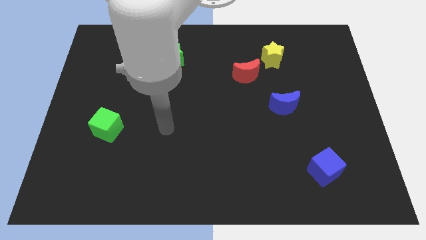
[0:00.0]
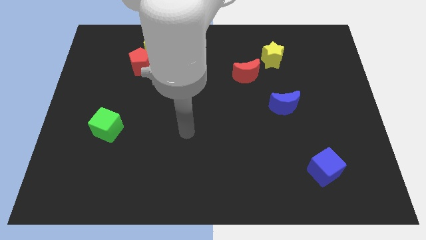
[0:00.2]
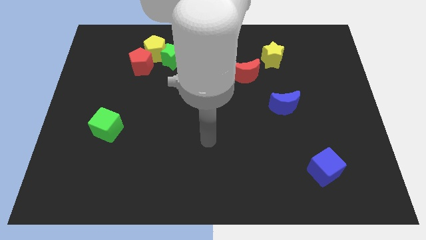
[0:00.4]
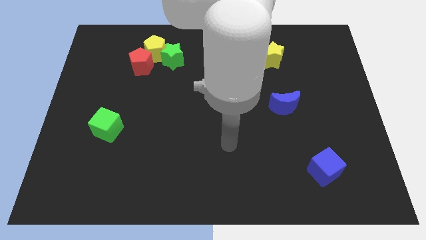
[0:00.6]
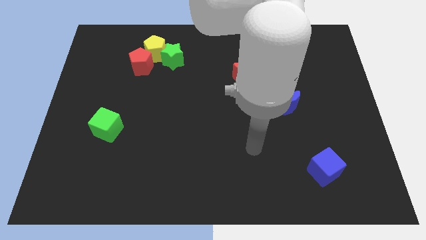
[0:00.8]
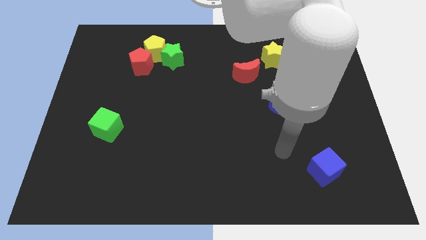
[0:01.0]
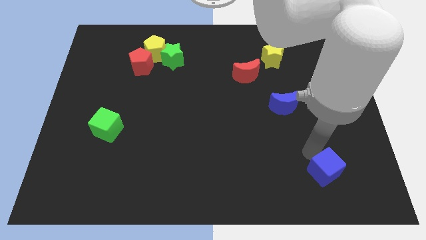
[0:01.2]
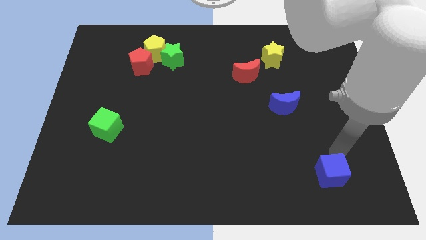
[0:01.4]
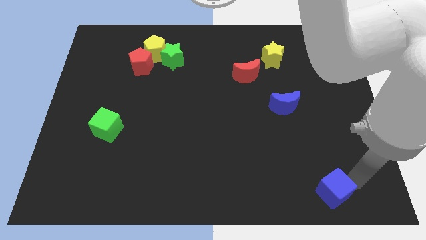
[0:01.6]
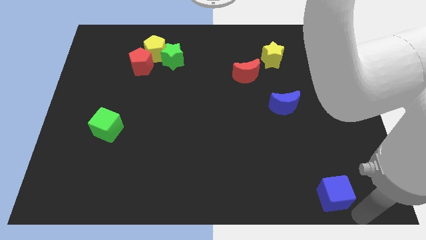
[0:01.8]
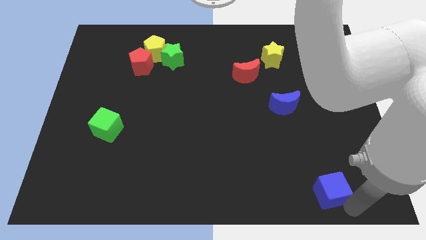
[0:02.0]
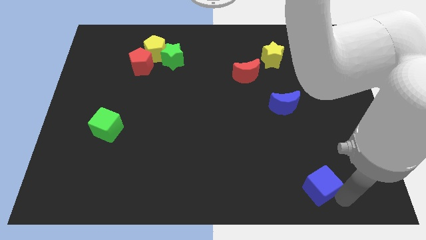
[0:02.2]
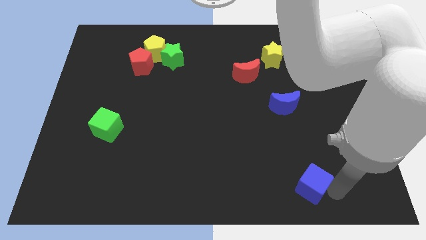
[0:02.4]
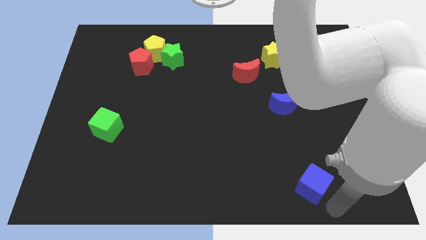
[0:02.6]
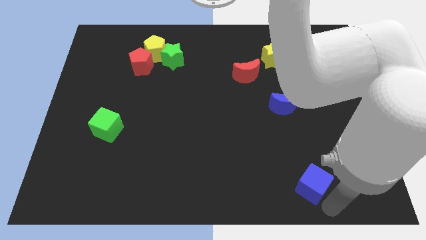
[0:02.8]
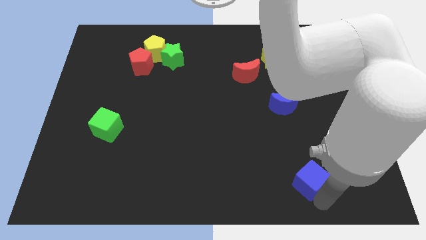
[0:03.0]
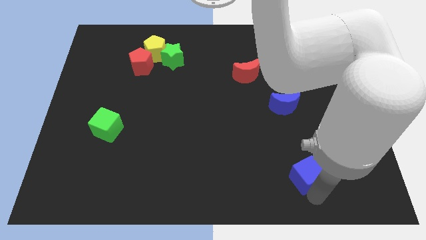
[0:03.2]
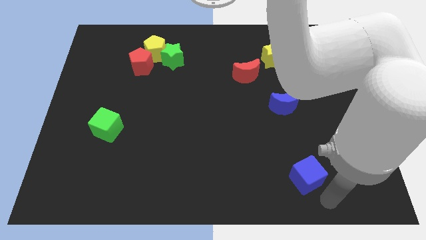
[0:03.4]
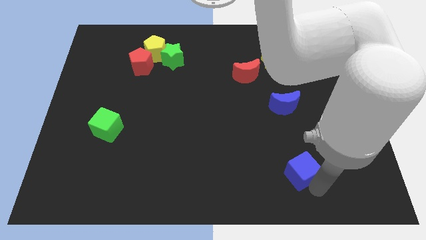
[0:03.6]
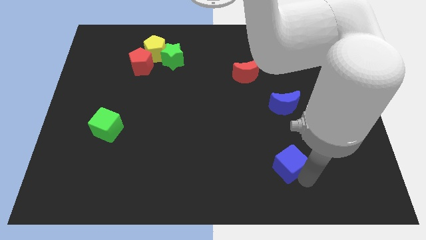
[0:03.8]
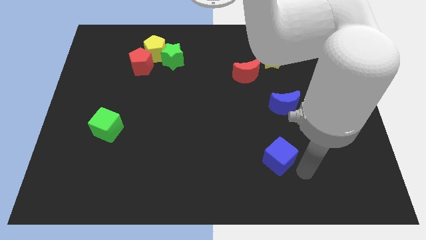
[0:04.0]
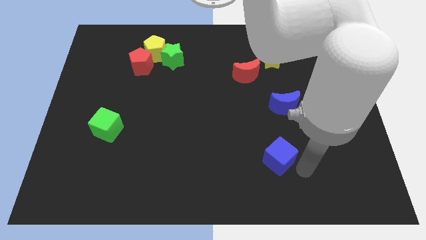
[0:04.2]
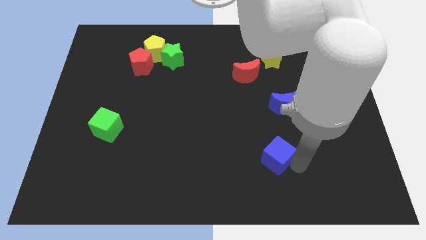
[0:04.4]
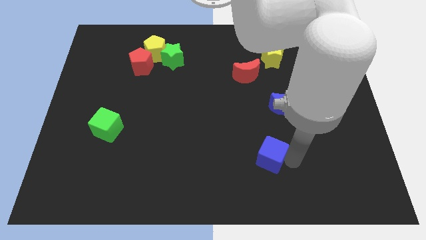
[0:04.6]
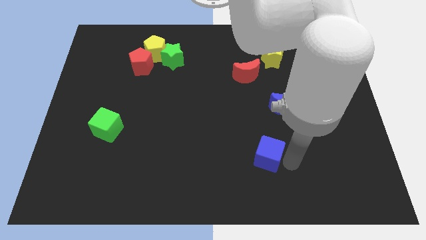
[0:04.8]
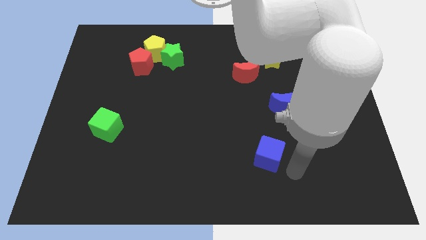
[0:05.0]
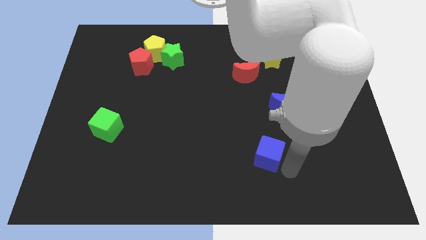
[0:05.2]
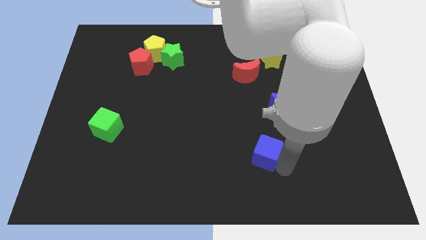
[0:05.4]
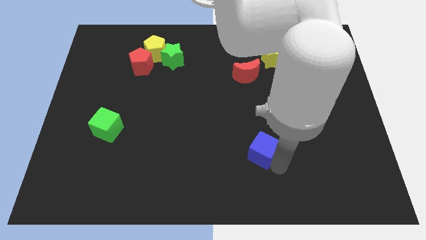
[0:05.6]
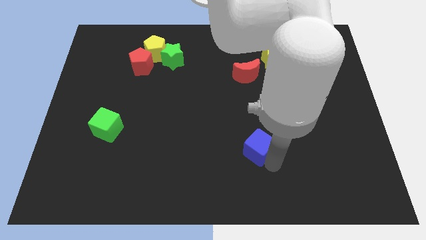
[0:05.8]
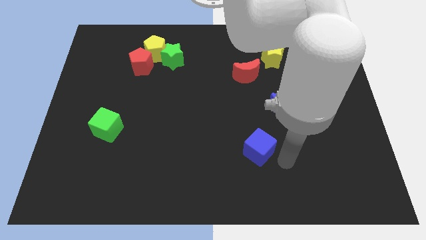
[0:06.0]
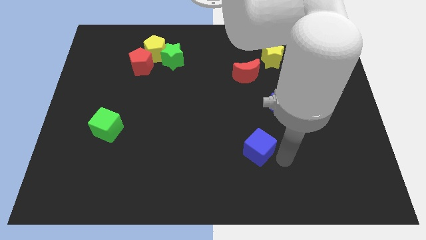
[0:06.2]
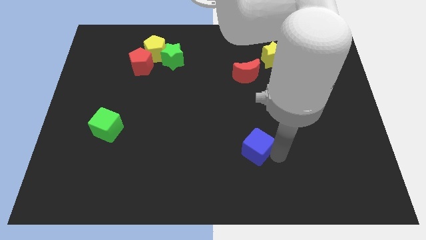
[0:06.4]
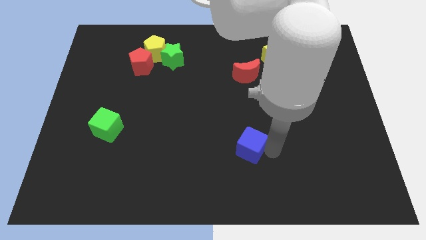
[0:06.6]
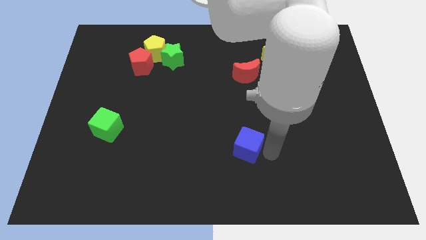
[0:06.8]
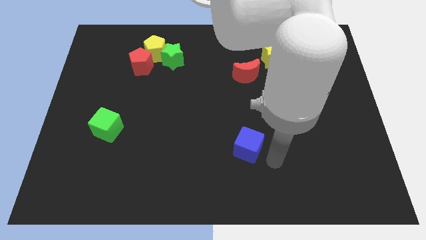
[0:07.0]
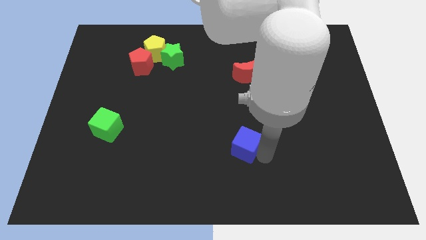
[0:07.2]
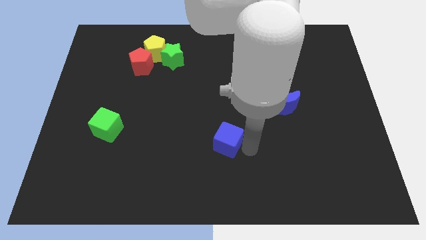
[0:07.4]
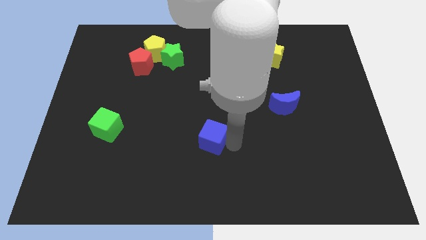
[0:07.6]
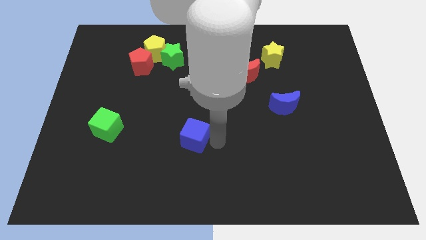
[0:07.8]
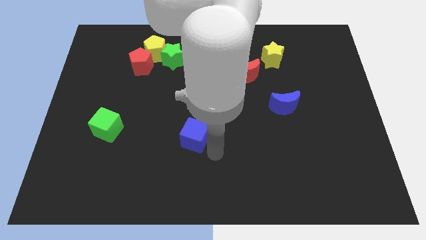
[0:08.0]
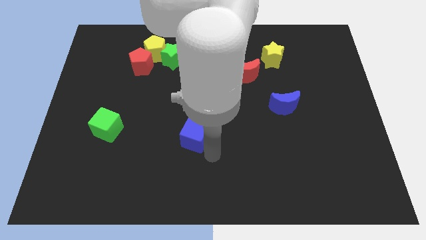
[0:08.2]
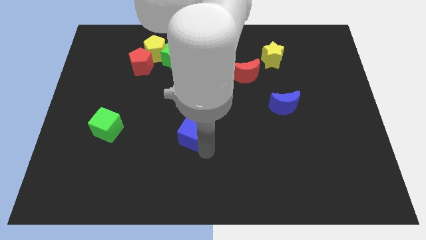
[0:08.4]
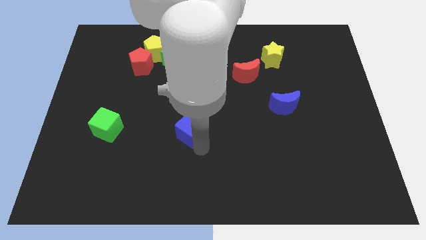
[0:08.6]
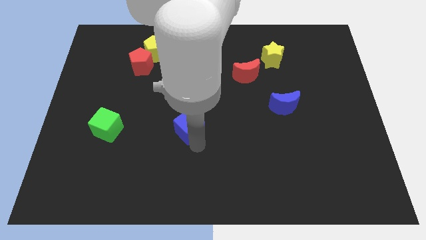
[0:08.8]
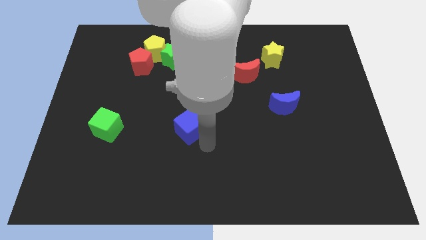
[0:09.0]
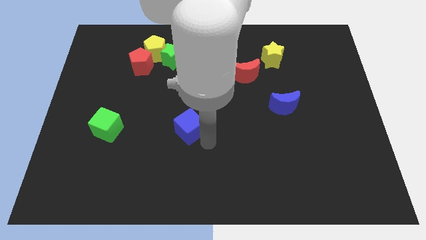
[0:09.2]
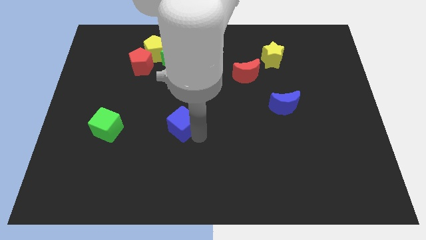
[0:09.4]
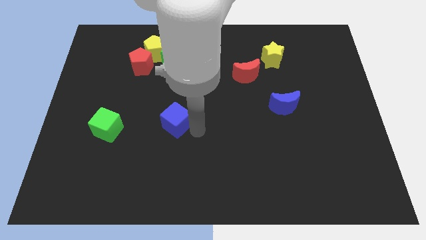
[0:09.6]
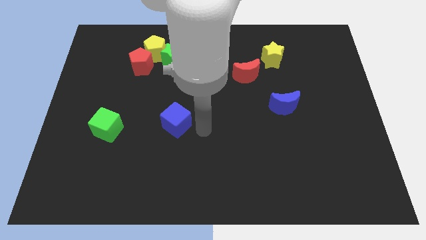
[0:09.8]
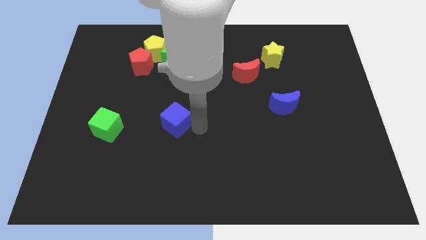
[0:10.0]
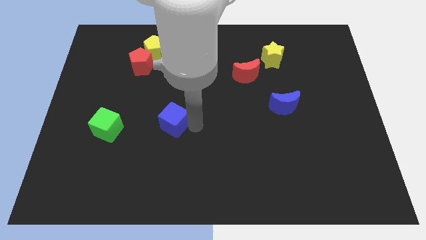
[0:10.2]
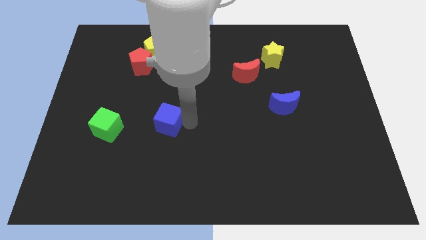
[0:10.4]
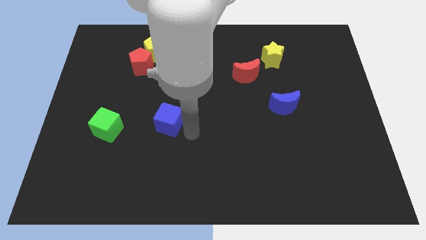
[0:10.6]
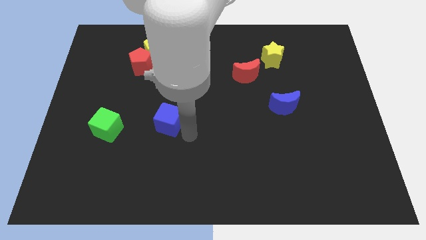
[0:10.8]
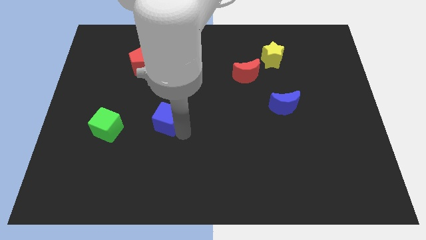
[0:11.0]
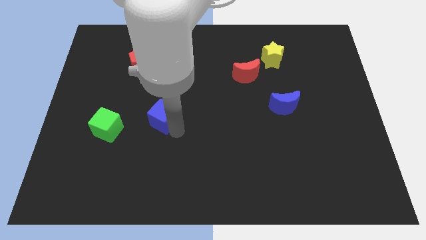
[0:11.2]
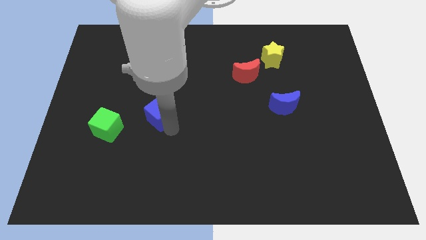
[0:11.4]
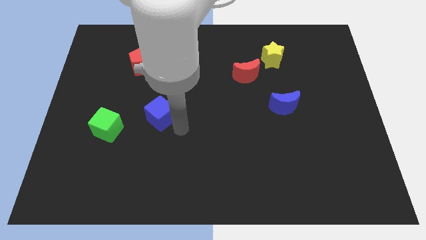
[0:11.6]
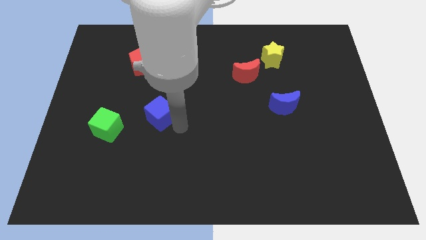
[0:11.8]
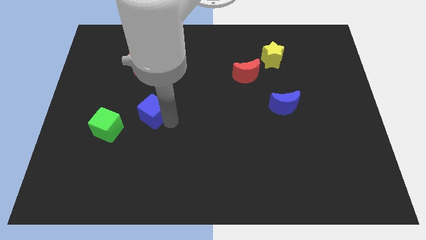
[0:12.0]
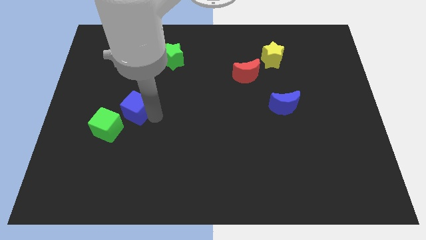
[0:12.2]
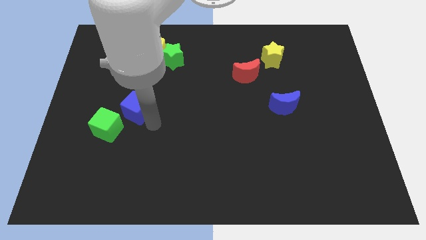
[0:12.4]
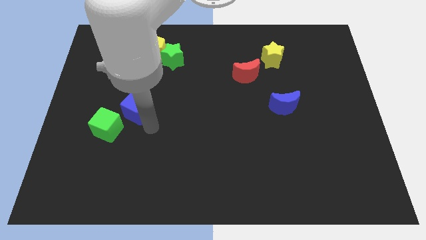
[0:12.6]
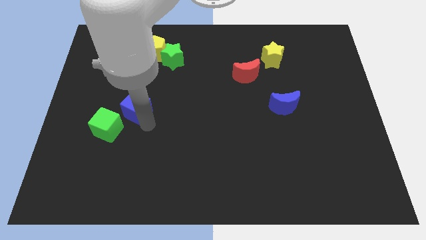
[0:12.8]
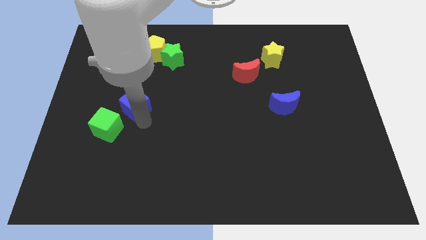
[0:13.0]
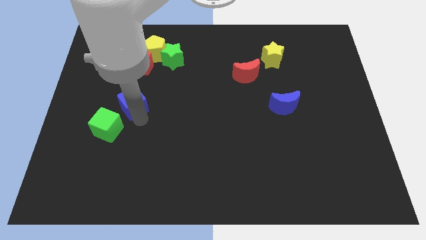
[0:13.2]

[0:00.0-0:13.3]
move the blue cube above the green cube
